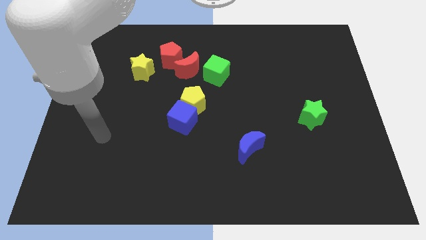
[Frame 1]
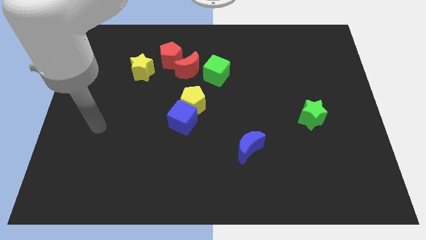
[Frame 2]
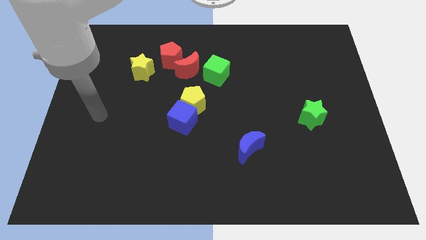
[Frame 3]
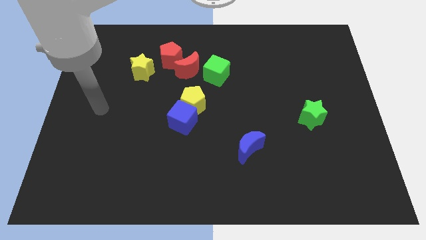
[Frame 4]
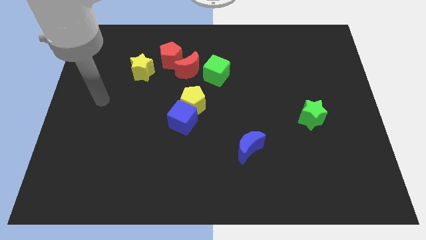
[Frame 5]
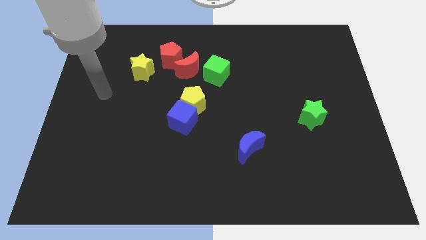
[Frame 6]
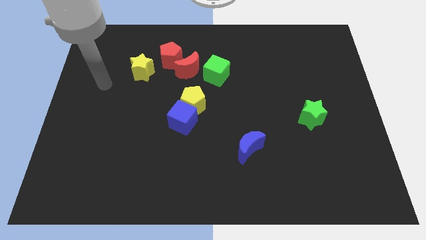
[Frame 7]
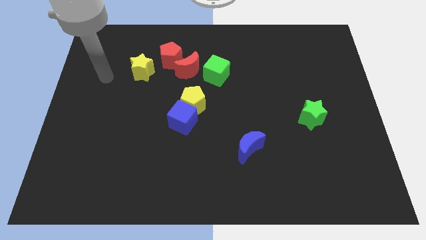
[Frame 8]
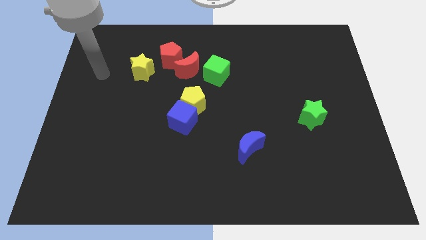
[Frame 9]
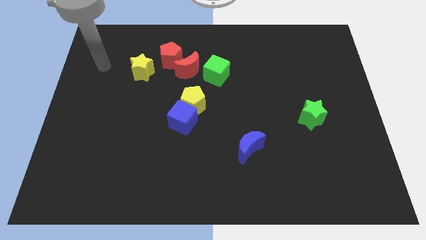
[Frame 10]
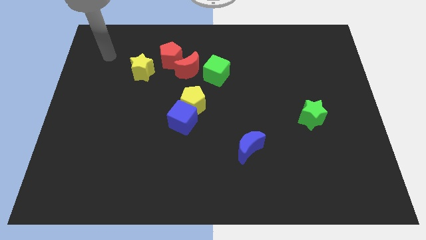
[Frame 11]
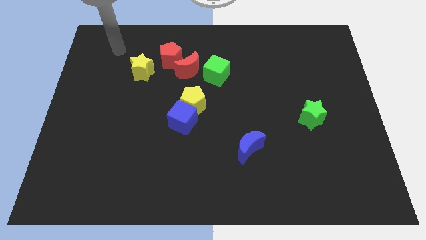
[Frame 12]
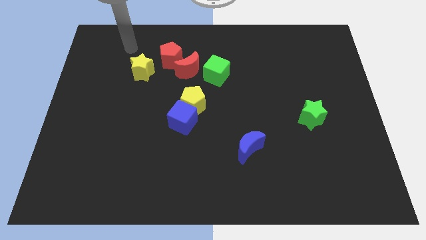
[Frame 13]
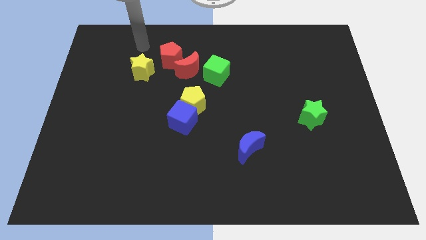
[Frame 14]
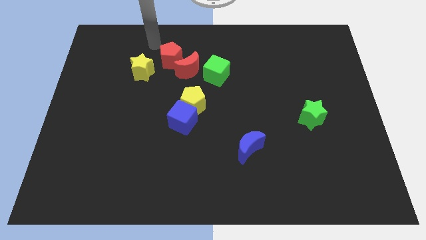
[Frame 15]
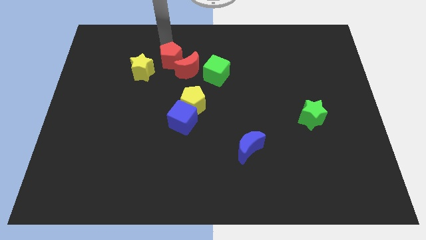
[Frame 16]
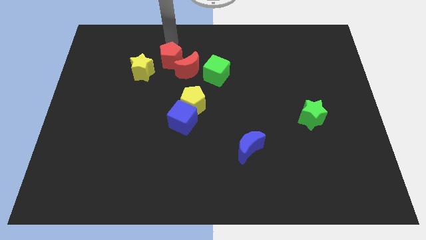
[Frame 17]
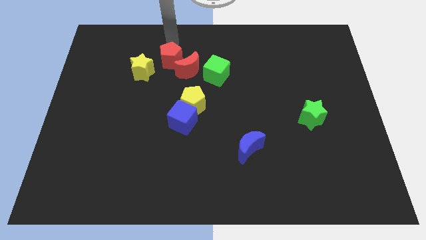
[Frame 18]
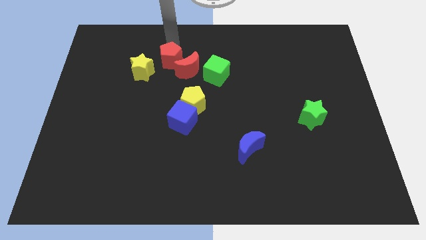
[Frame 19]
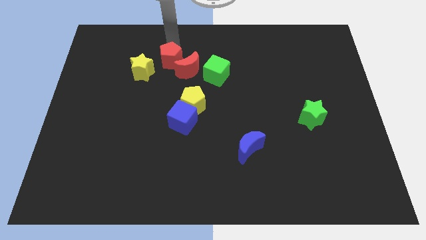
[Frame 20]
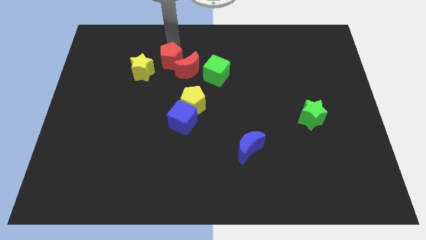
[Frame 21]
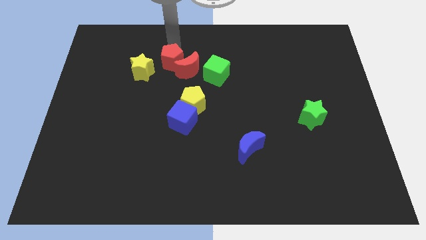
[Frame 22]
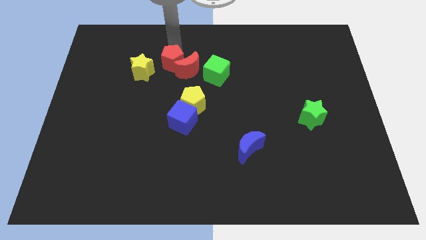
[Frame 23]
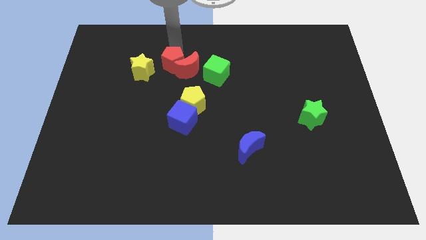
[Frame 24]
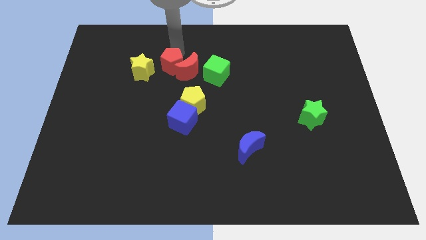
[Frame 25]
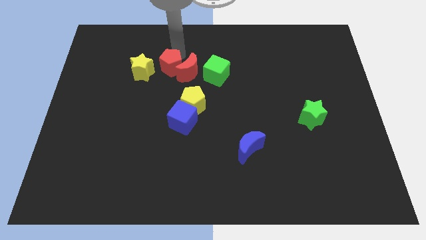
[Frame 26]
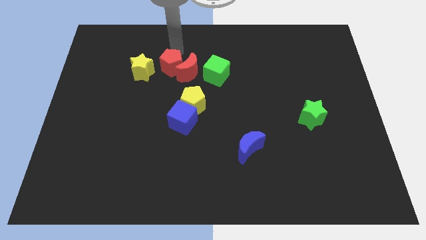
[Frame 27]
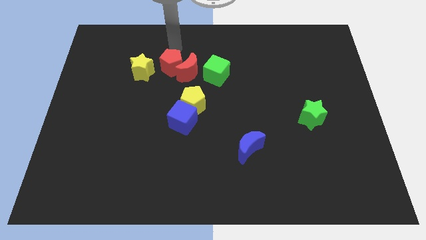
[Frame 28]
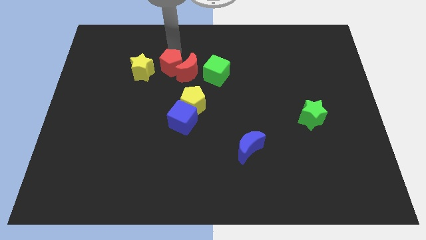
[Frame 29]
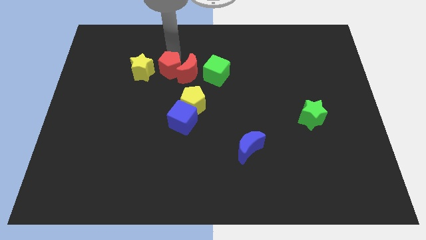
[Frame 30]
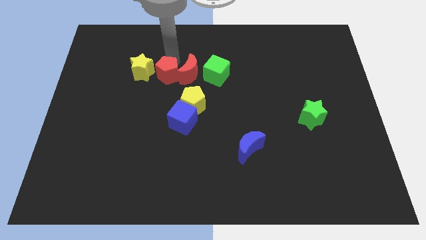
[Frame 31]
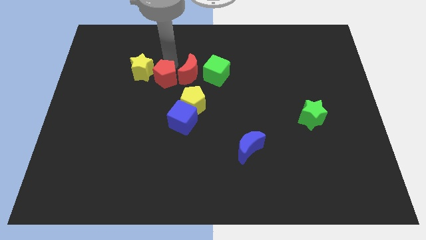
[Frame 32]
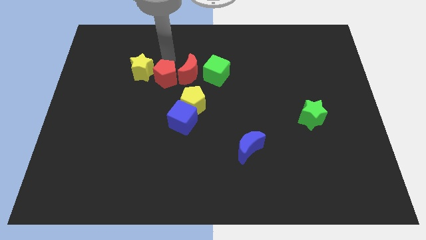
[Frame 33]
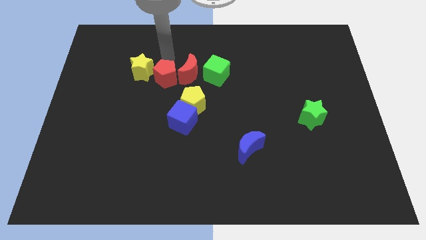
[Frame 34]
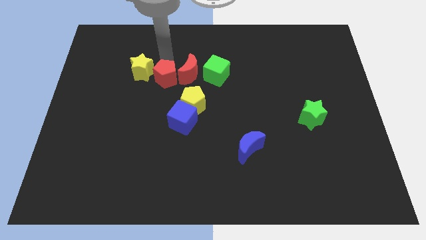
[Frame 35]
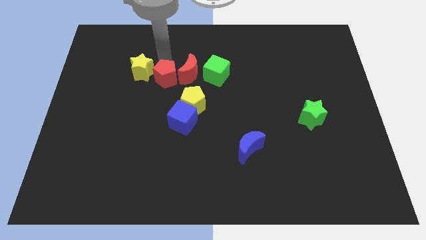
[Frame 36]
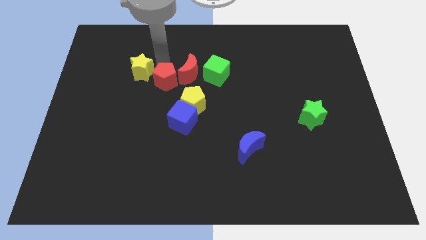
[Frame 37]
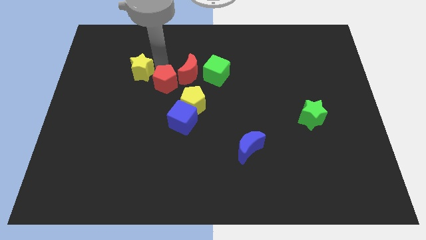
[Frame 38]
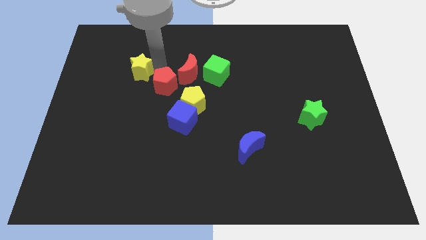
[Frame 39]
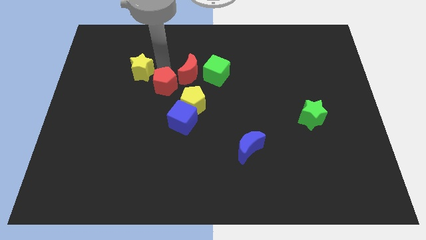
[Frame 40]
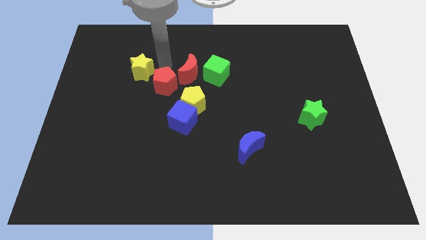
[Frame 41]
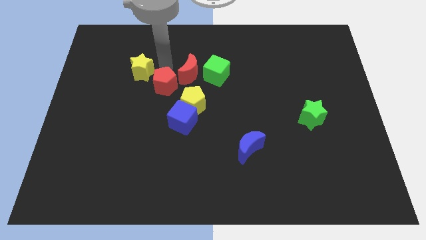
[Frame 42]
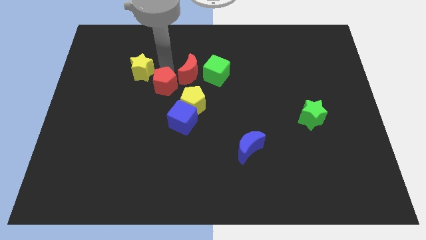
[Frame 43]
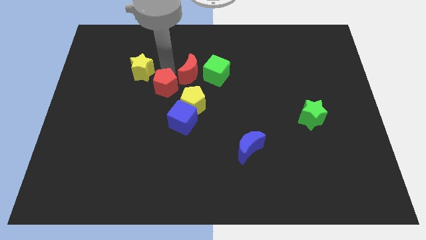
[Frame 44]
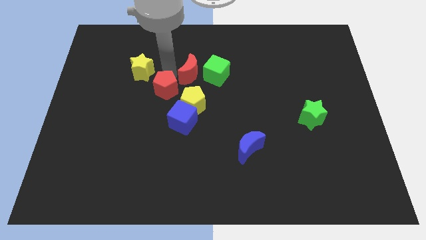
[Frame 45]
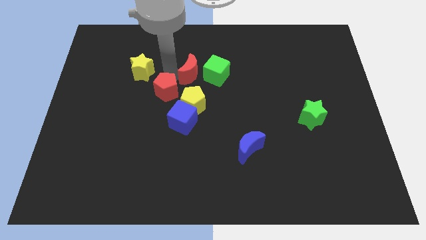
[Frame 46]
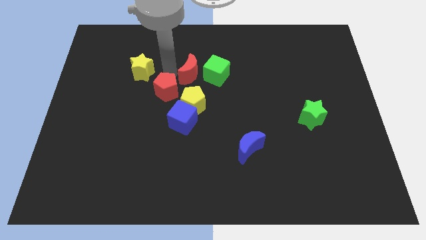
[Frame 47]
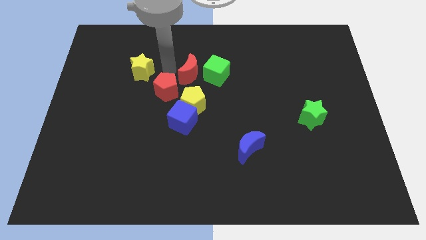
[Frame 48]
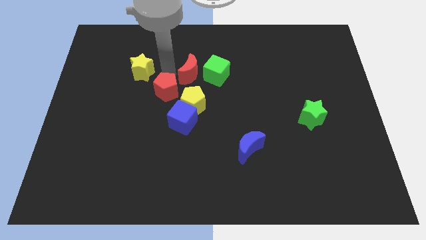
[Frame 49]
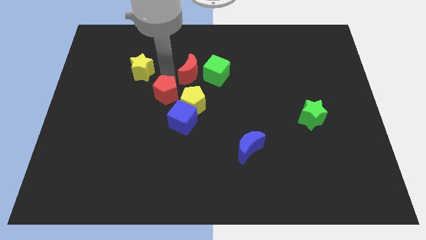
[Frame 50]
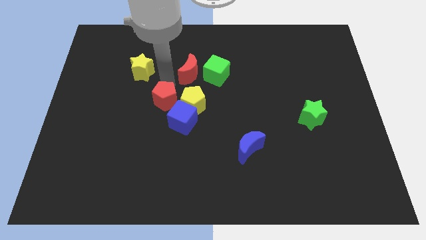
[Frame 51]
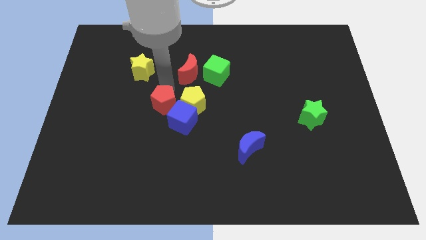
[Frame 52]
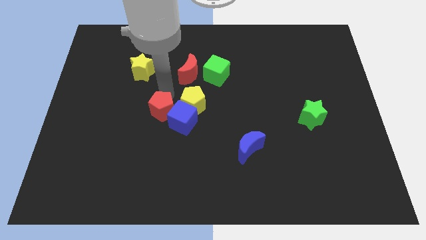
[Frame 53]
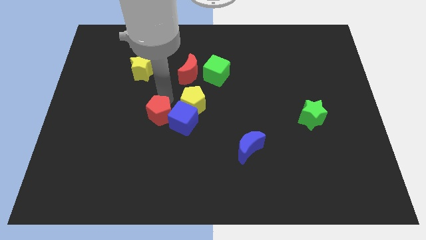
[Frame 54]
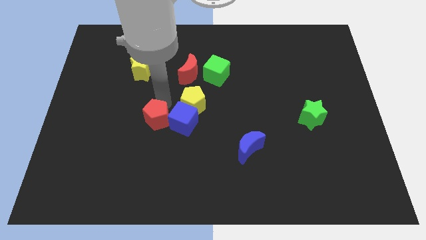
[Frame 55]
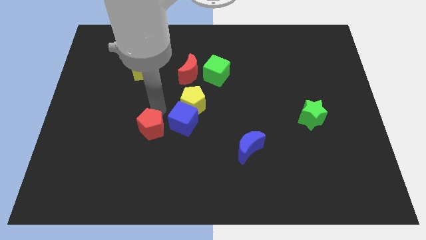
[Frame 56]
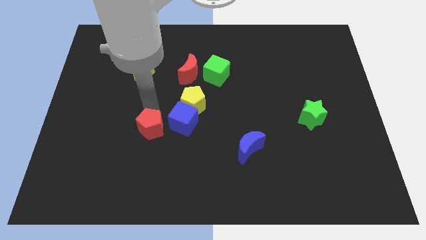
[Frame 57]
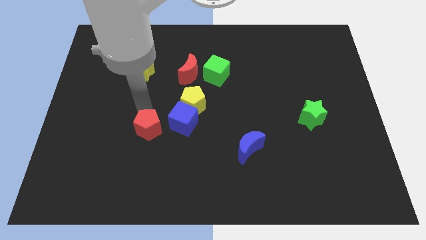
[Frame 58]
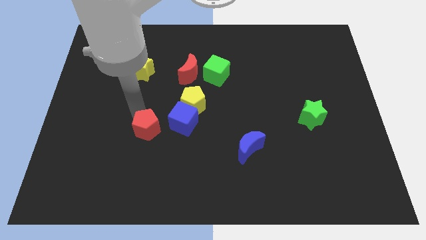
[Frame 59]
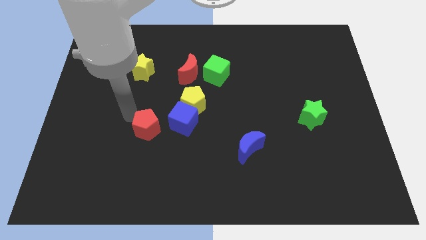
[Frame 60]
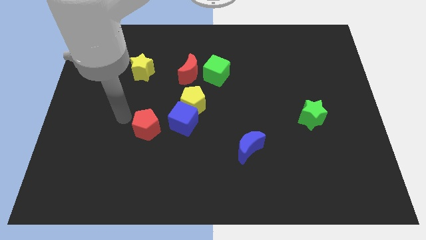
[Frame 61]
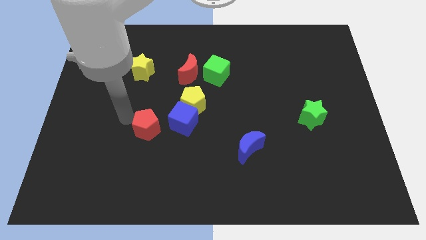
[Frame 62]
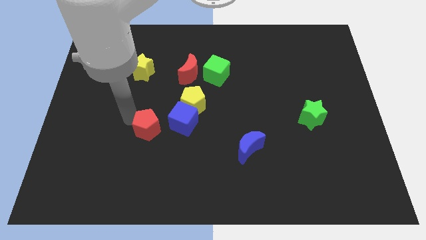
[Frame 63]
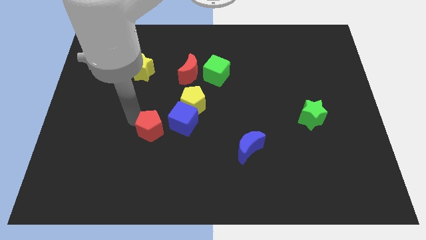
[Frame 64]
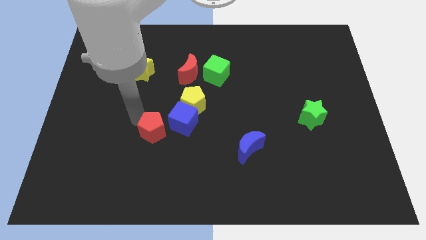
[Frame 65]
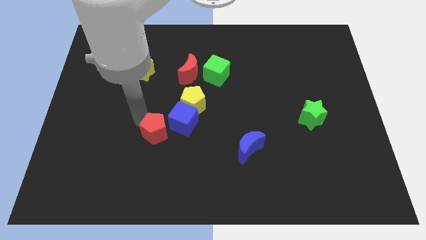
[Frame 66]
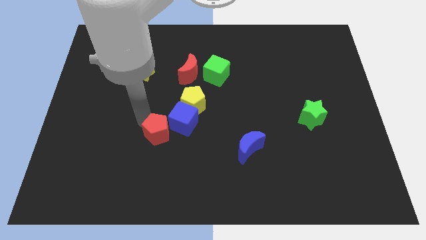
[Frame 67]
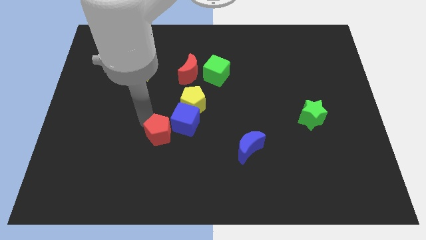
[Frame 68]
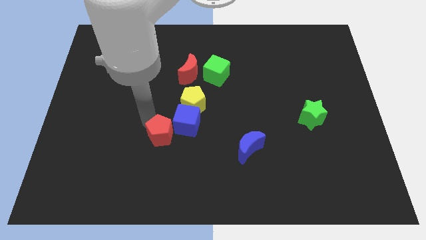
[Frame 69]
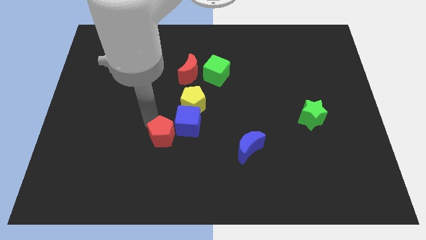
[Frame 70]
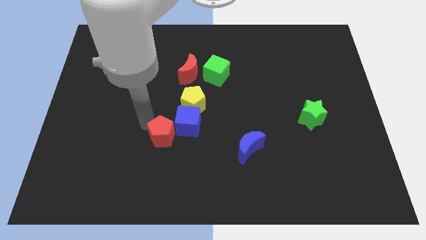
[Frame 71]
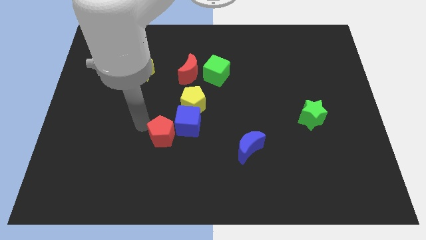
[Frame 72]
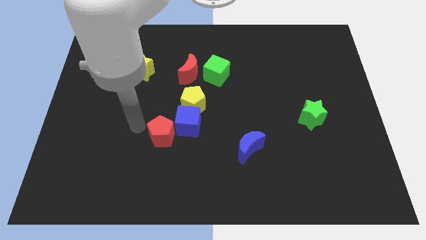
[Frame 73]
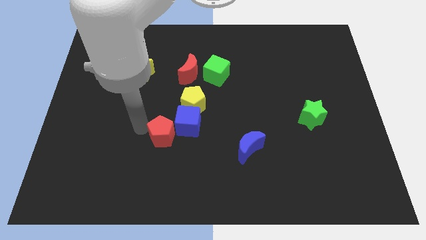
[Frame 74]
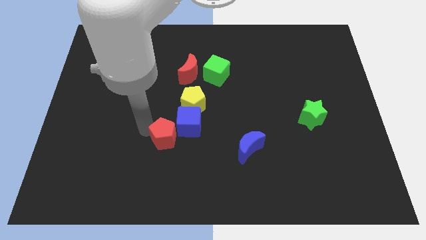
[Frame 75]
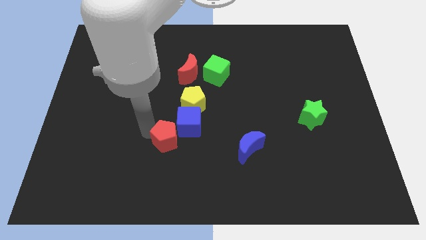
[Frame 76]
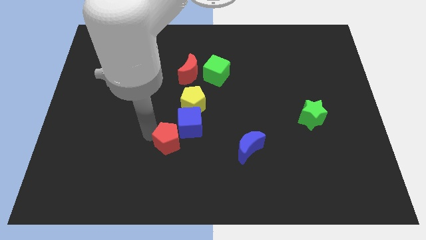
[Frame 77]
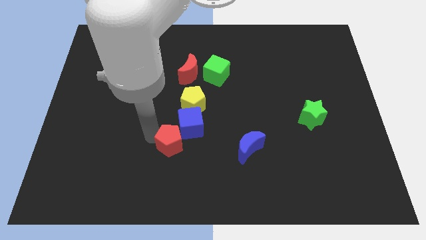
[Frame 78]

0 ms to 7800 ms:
slide the red pentagon to the bottom of the yellow pentagon
